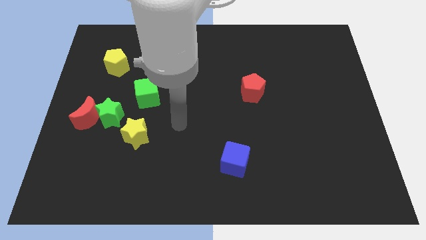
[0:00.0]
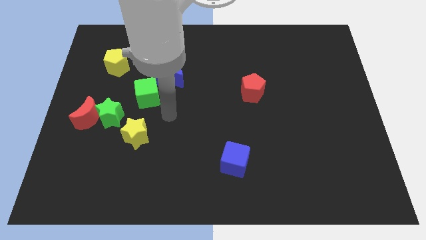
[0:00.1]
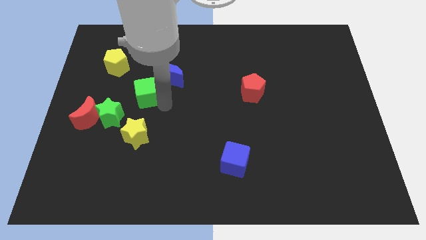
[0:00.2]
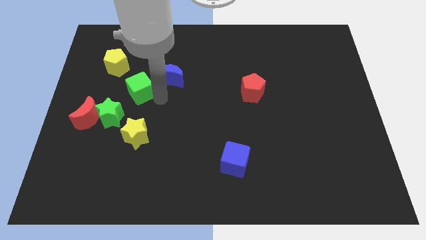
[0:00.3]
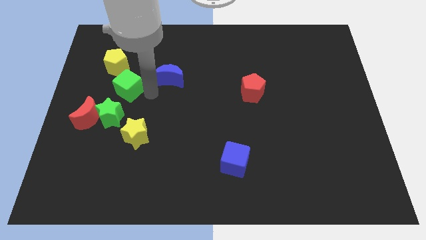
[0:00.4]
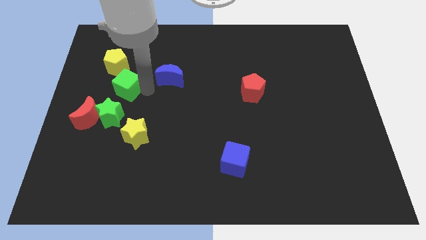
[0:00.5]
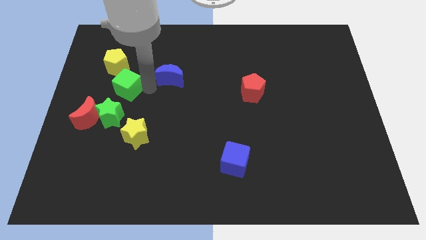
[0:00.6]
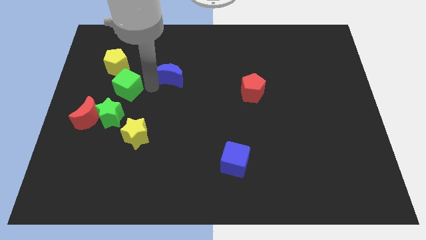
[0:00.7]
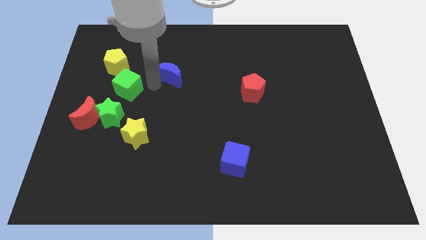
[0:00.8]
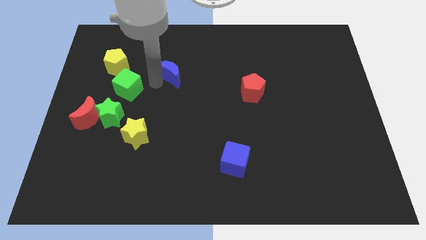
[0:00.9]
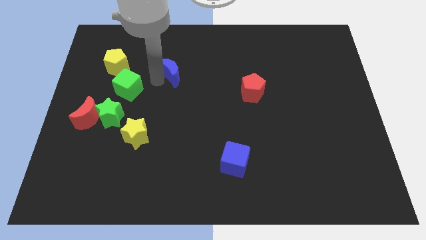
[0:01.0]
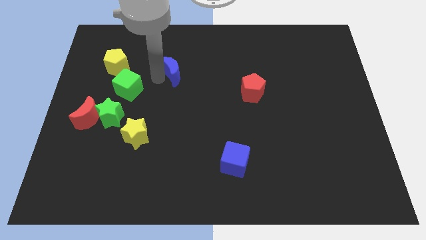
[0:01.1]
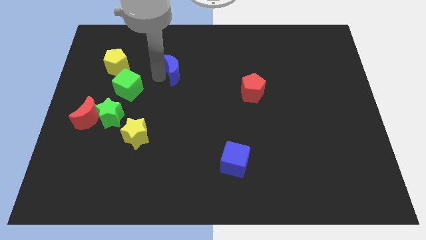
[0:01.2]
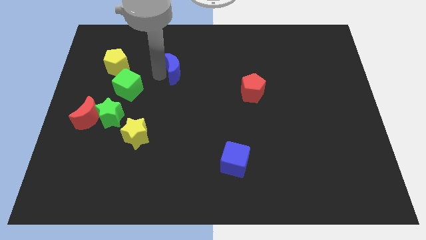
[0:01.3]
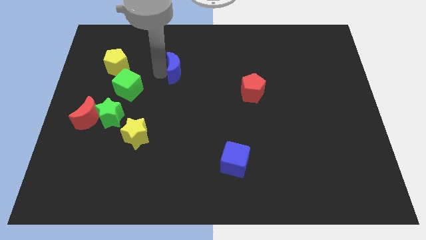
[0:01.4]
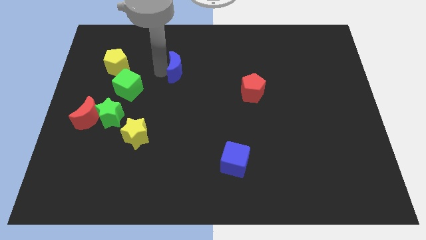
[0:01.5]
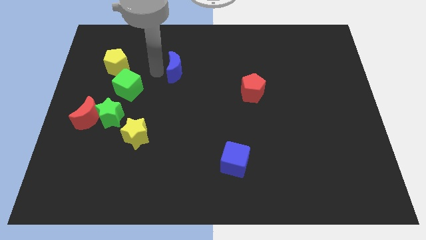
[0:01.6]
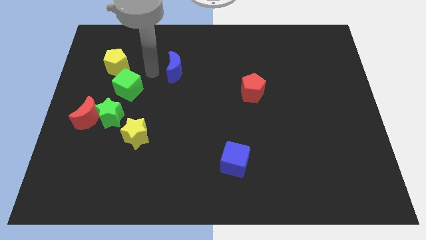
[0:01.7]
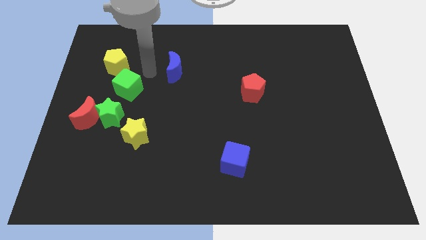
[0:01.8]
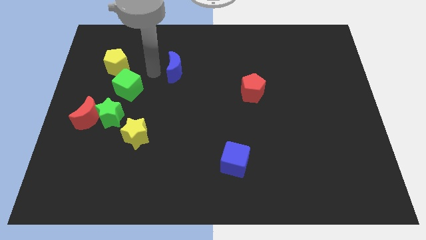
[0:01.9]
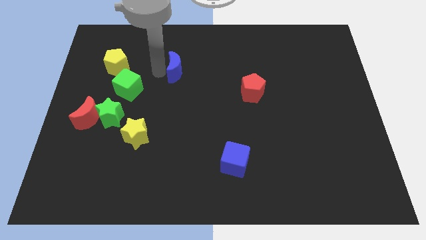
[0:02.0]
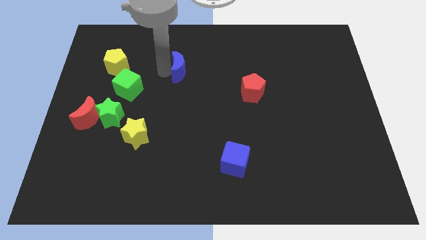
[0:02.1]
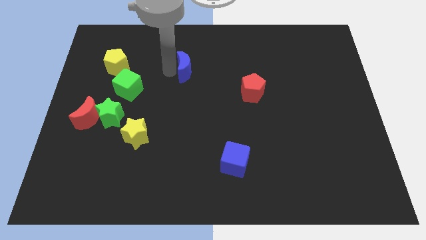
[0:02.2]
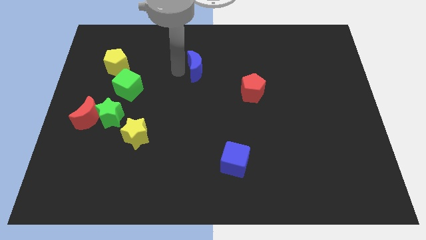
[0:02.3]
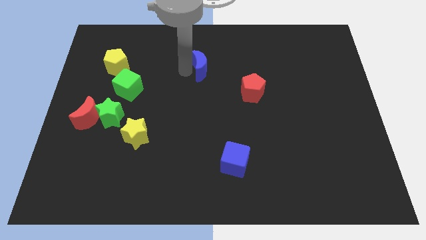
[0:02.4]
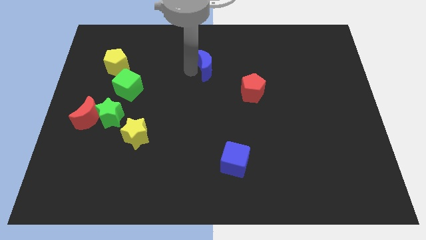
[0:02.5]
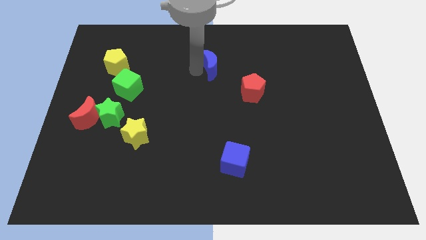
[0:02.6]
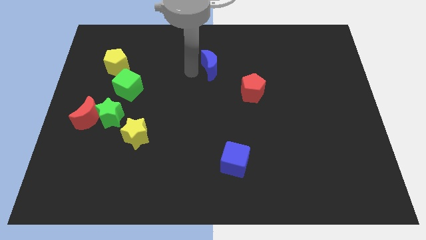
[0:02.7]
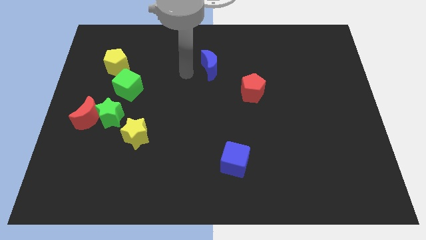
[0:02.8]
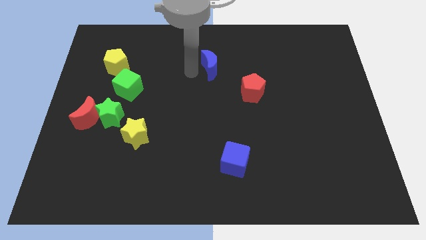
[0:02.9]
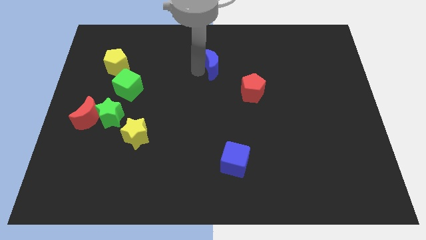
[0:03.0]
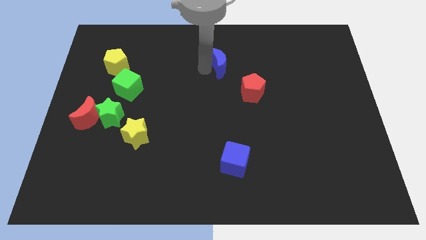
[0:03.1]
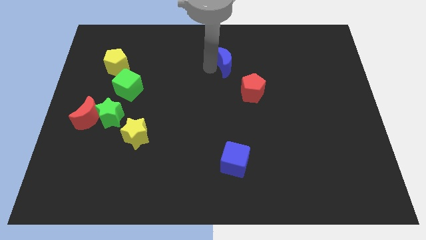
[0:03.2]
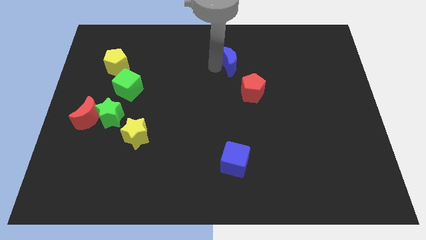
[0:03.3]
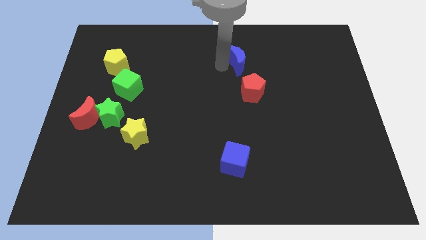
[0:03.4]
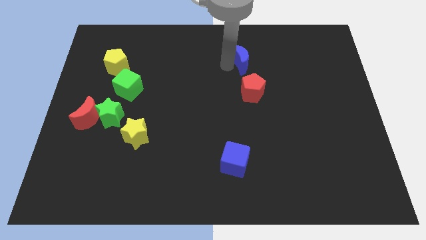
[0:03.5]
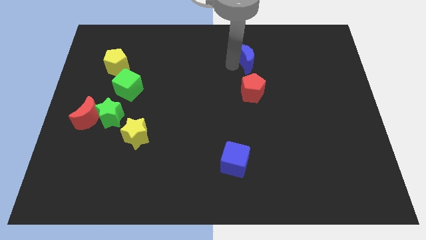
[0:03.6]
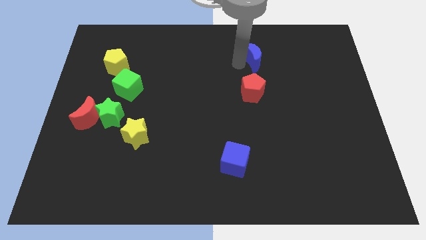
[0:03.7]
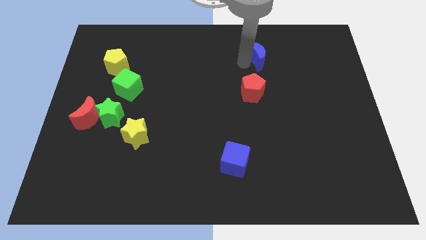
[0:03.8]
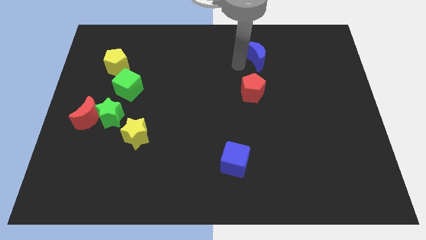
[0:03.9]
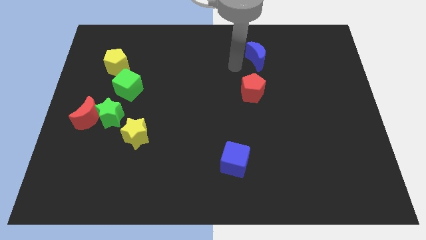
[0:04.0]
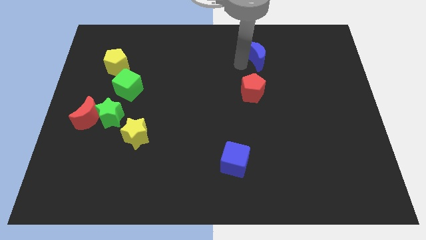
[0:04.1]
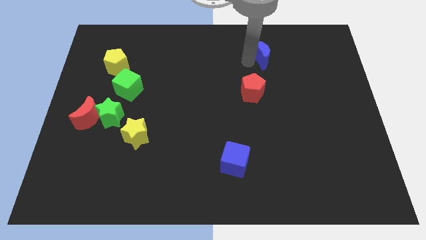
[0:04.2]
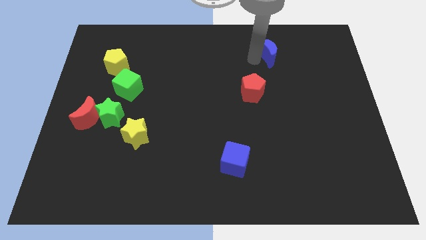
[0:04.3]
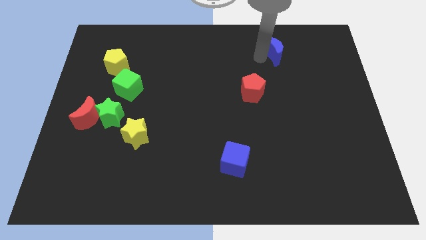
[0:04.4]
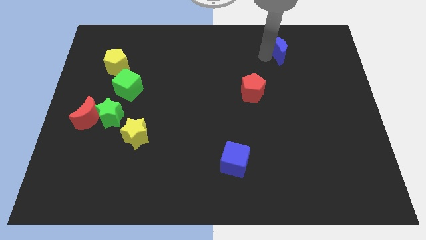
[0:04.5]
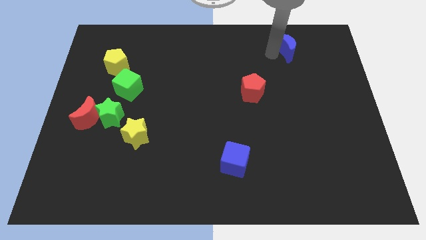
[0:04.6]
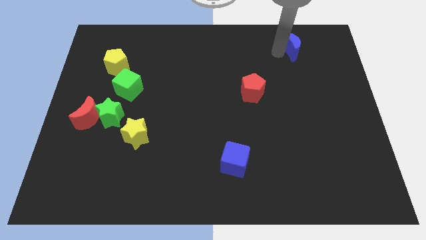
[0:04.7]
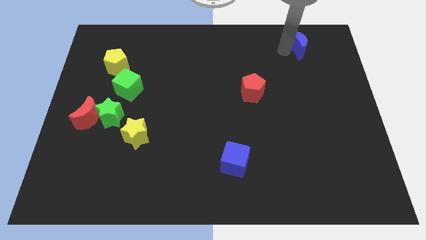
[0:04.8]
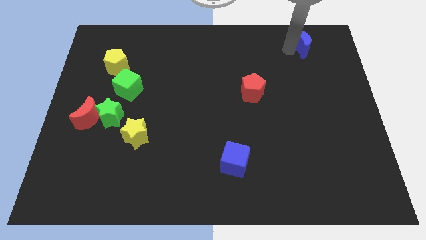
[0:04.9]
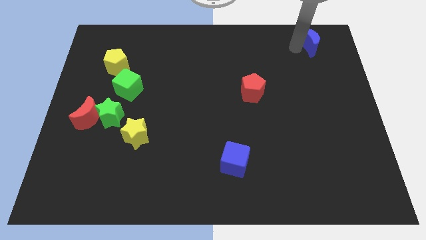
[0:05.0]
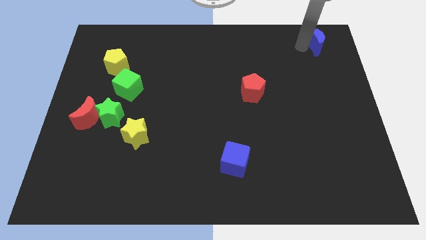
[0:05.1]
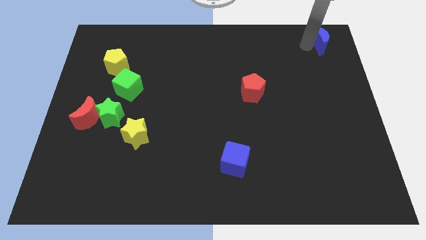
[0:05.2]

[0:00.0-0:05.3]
move the blue moon to the top right of the board

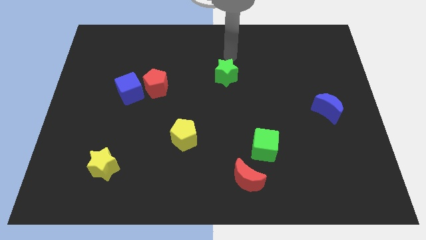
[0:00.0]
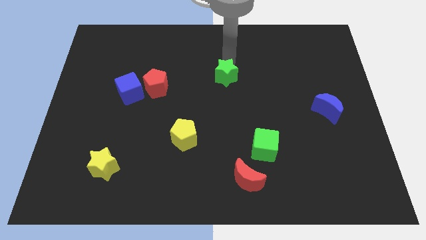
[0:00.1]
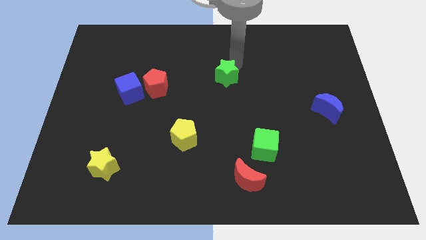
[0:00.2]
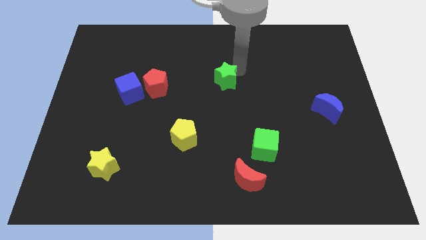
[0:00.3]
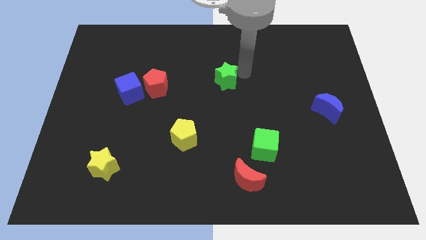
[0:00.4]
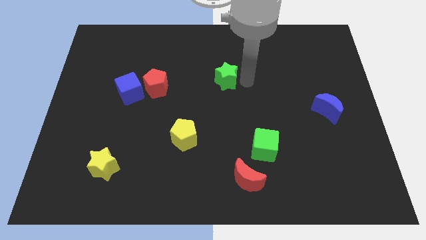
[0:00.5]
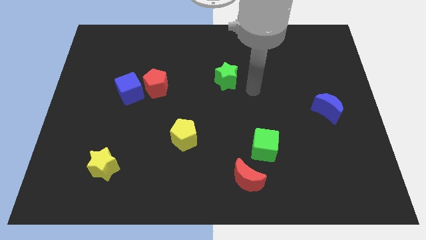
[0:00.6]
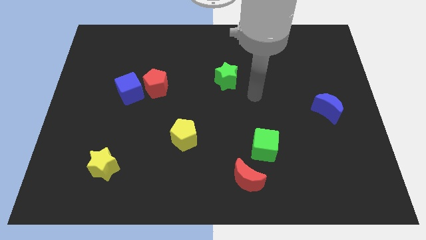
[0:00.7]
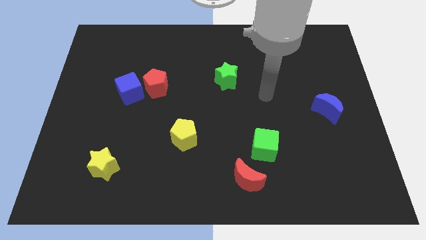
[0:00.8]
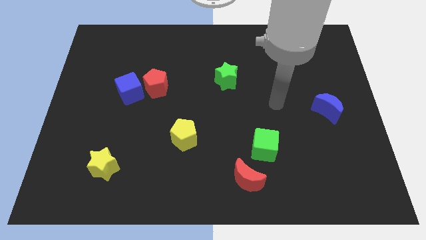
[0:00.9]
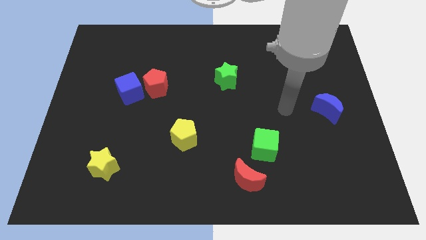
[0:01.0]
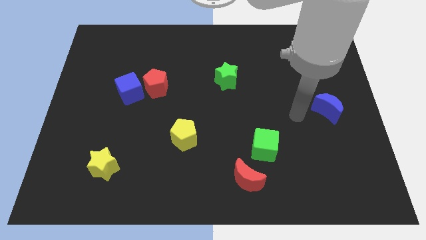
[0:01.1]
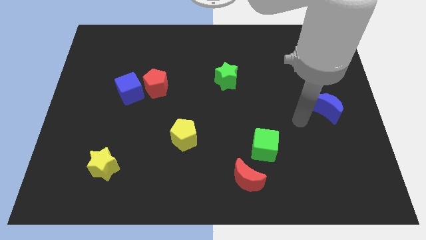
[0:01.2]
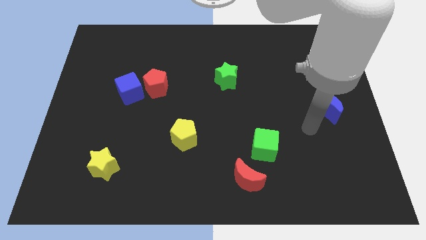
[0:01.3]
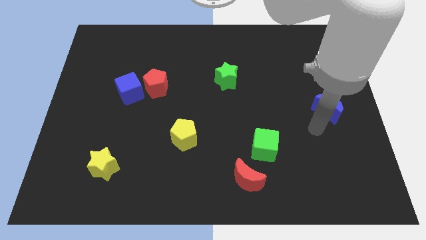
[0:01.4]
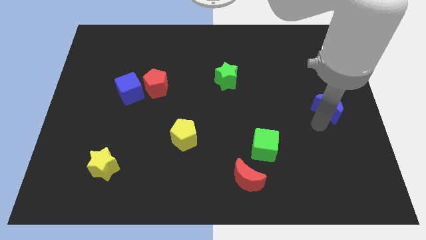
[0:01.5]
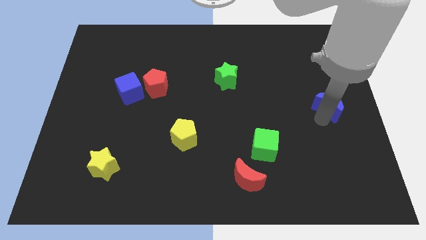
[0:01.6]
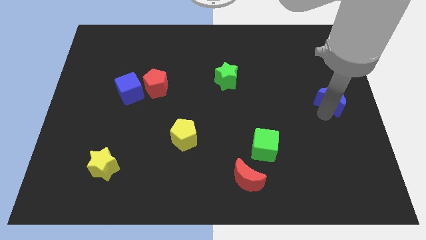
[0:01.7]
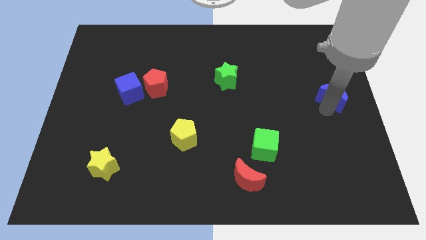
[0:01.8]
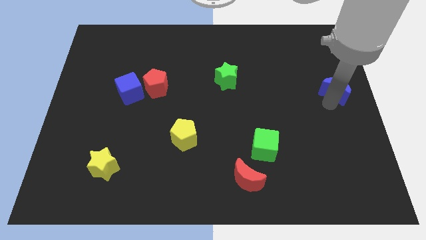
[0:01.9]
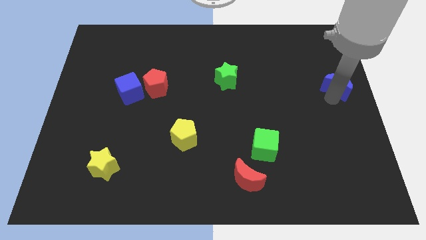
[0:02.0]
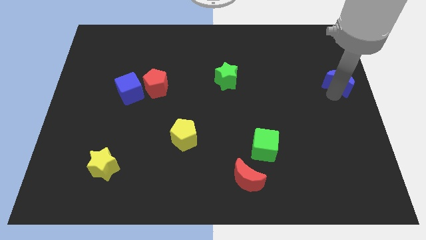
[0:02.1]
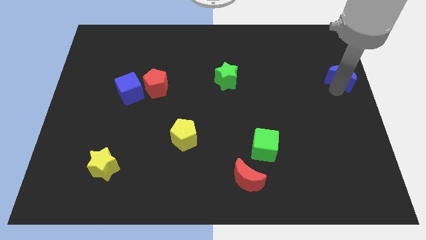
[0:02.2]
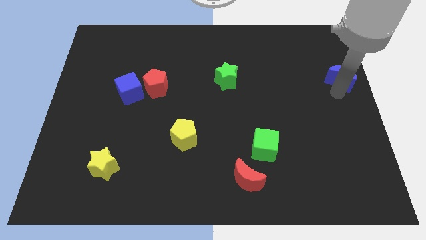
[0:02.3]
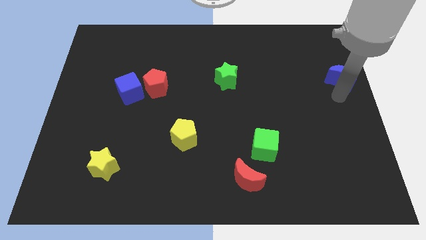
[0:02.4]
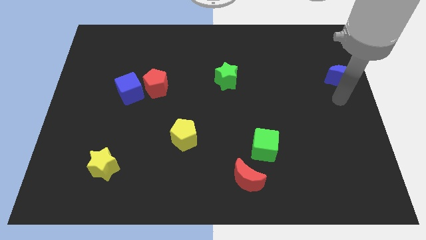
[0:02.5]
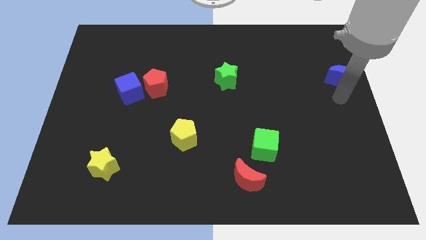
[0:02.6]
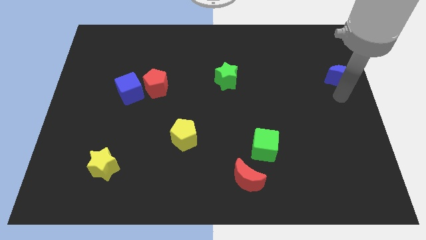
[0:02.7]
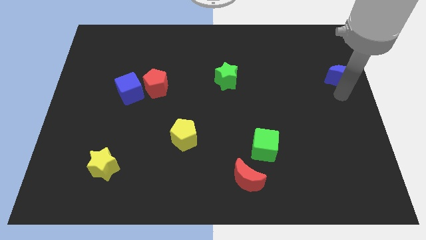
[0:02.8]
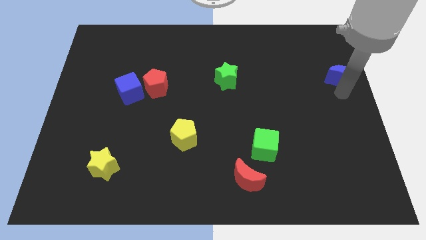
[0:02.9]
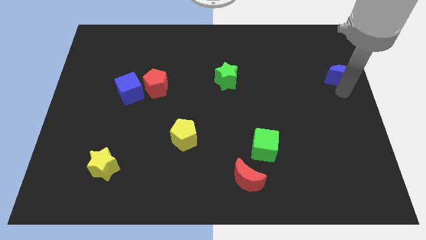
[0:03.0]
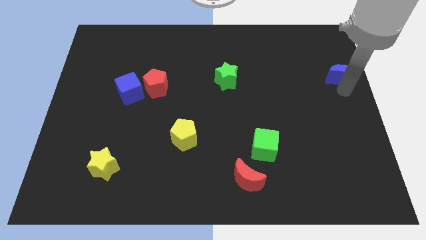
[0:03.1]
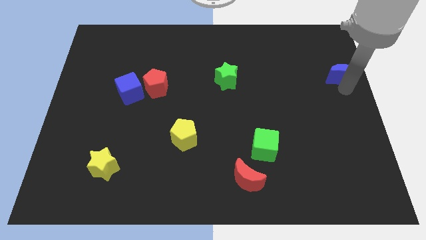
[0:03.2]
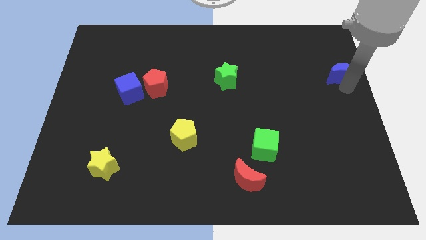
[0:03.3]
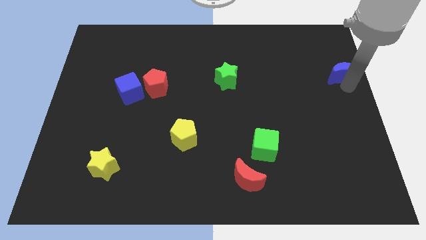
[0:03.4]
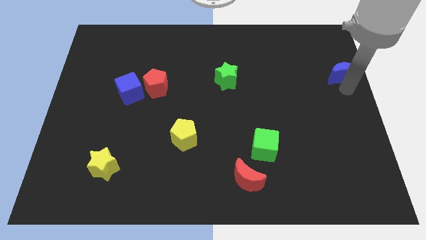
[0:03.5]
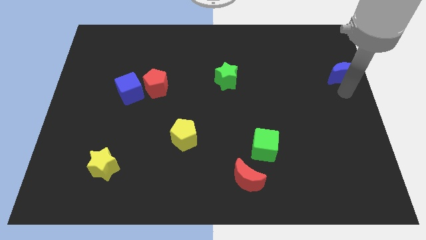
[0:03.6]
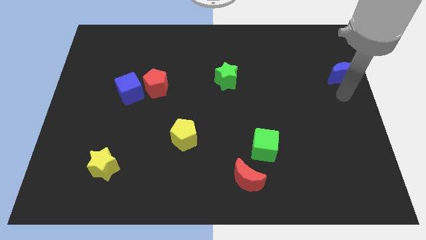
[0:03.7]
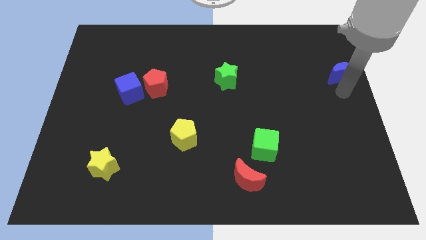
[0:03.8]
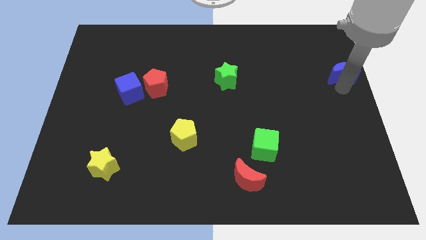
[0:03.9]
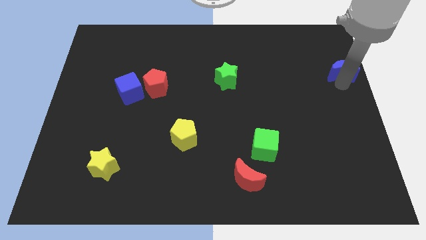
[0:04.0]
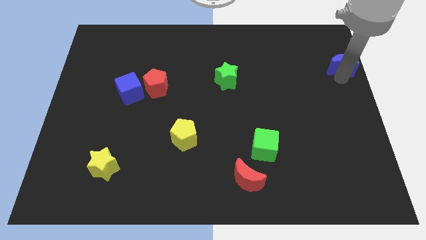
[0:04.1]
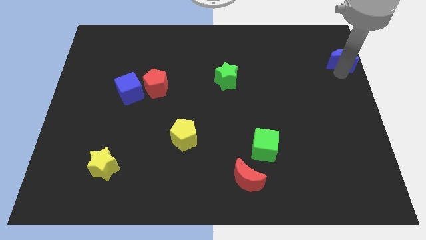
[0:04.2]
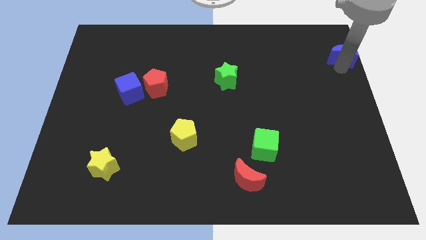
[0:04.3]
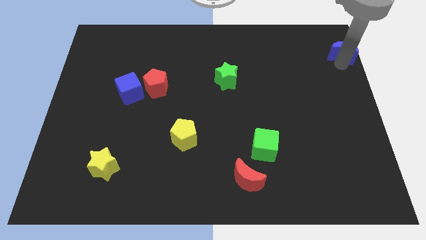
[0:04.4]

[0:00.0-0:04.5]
put the blue moon to the top right of the board
